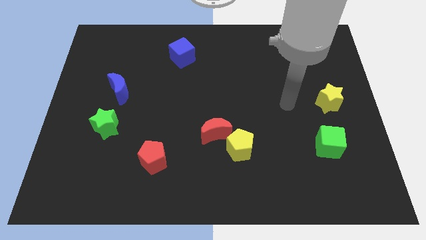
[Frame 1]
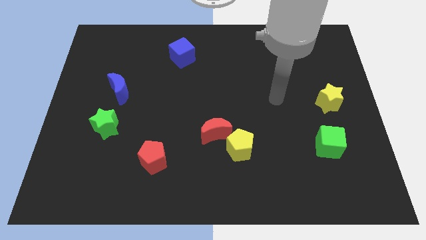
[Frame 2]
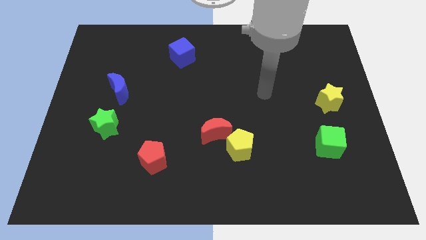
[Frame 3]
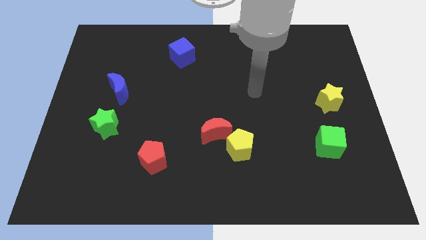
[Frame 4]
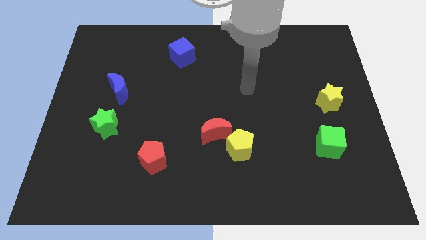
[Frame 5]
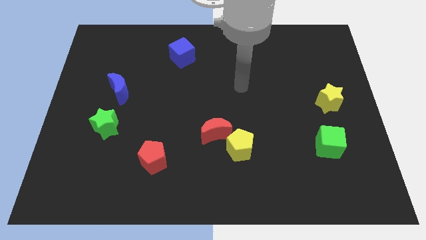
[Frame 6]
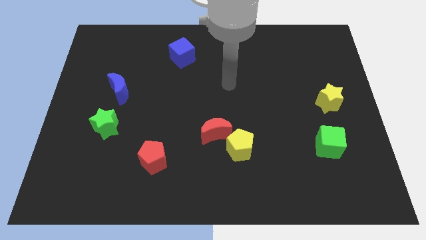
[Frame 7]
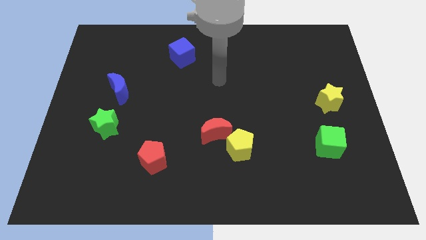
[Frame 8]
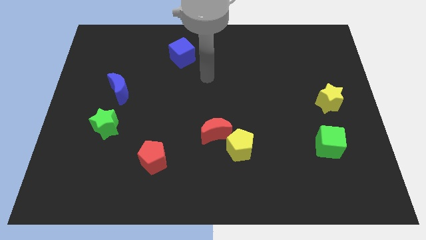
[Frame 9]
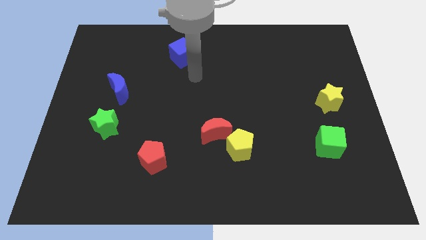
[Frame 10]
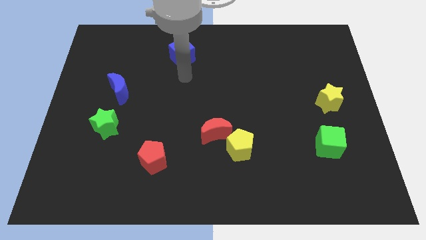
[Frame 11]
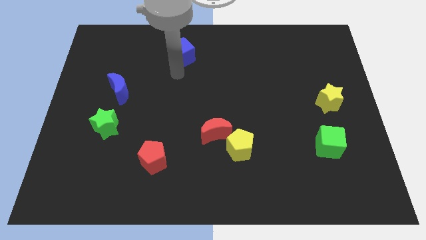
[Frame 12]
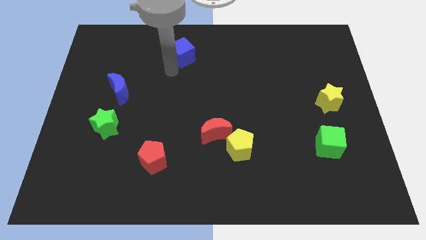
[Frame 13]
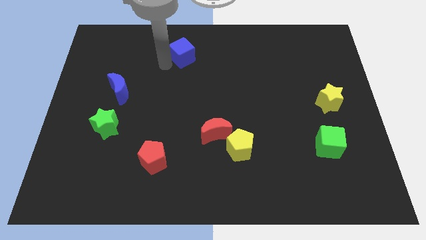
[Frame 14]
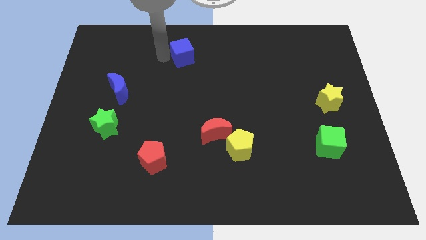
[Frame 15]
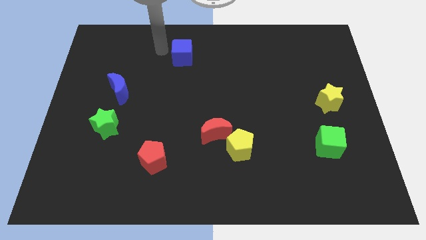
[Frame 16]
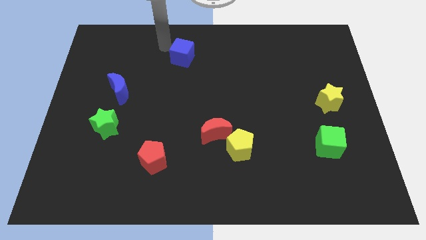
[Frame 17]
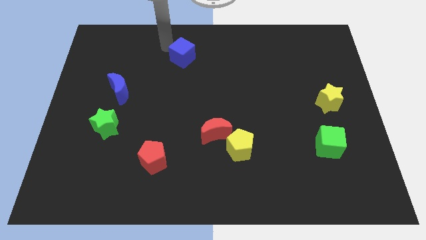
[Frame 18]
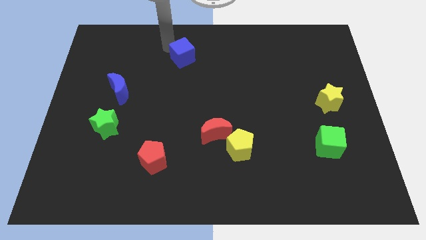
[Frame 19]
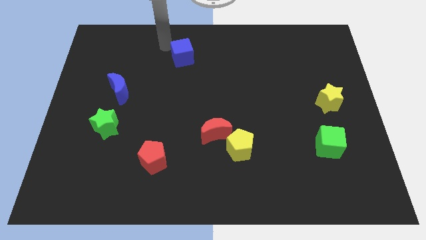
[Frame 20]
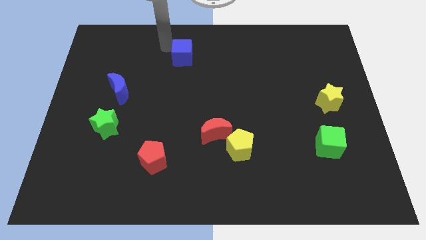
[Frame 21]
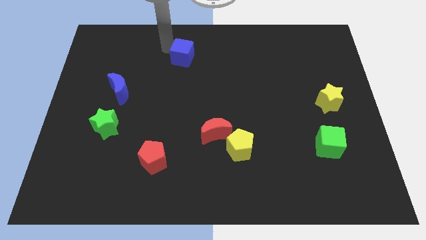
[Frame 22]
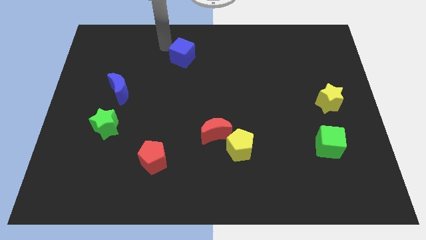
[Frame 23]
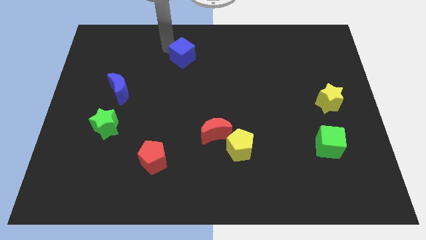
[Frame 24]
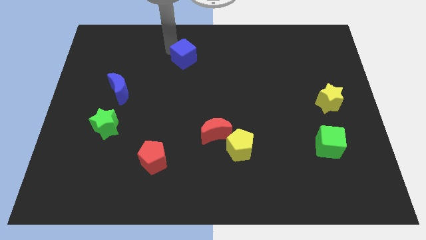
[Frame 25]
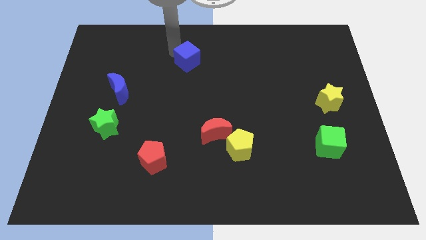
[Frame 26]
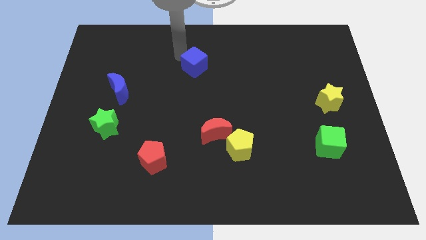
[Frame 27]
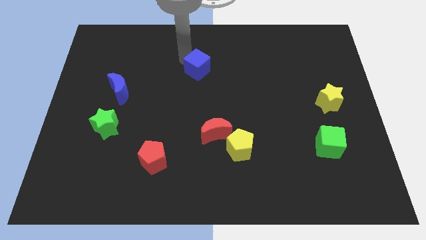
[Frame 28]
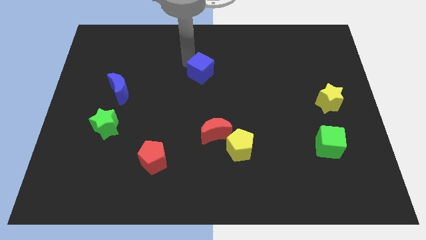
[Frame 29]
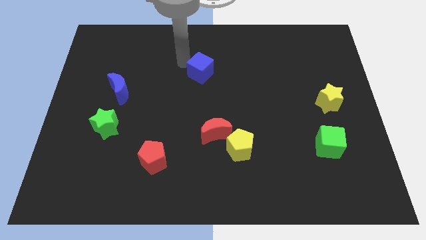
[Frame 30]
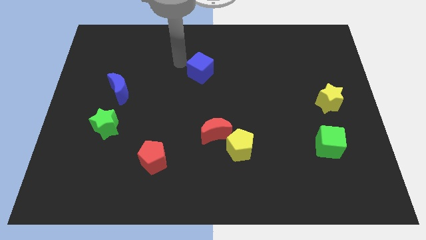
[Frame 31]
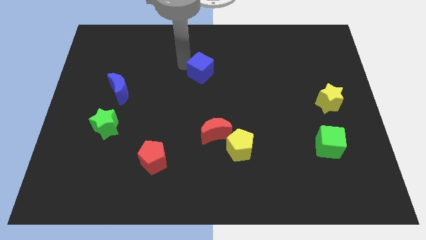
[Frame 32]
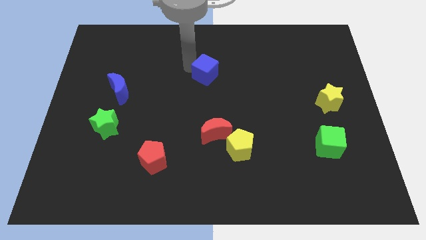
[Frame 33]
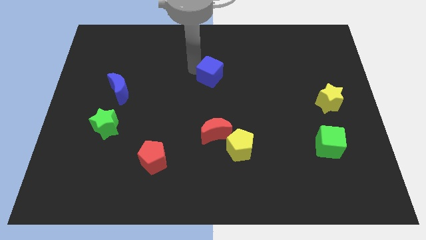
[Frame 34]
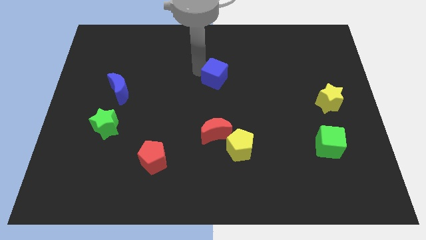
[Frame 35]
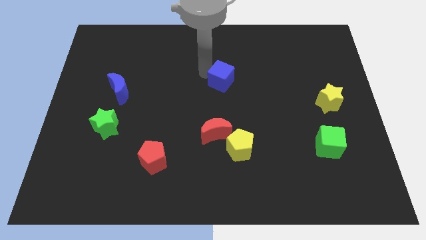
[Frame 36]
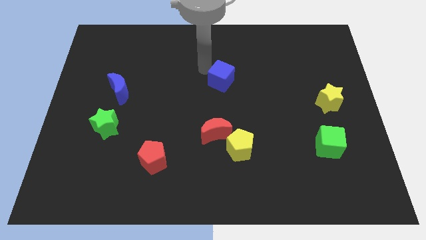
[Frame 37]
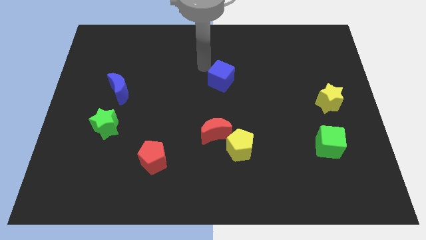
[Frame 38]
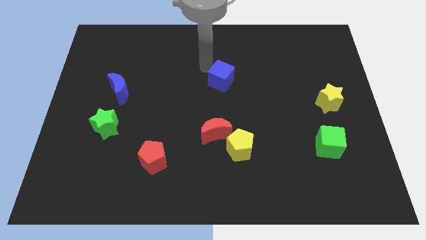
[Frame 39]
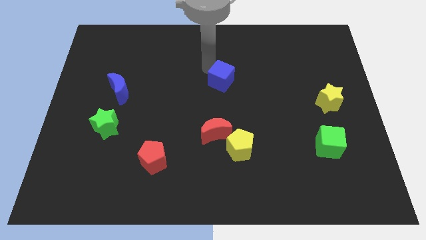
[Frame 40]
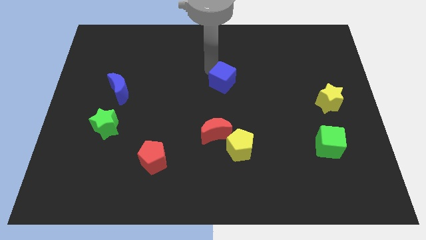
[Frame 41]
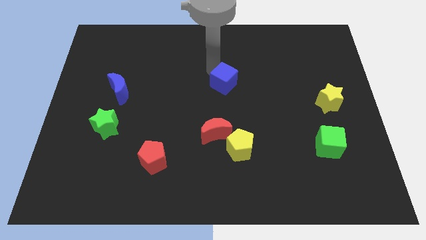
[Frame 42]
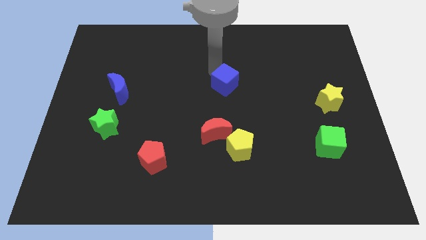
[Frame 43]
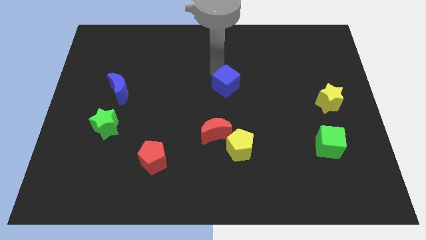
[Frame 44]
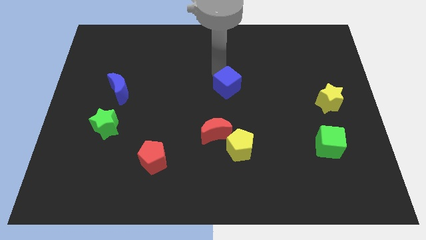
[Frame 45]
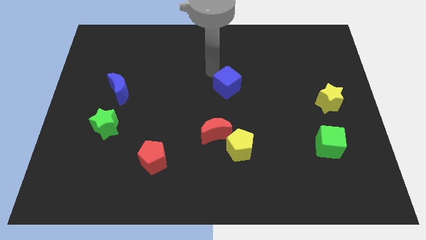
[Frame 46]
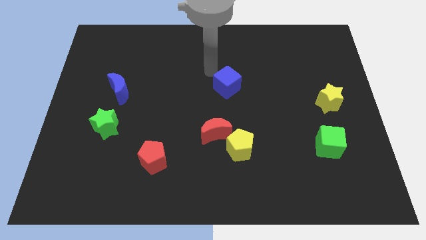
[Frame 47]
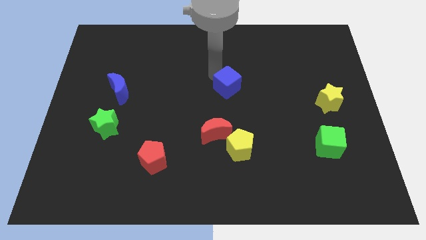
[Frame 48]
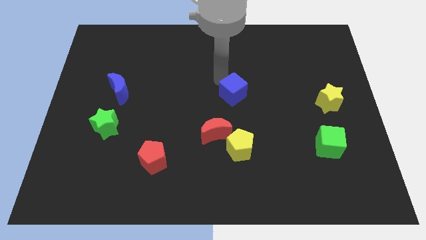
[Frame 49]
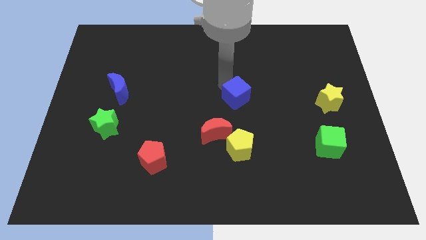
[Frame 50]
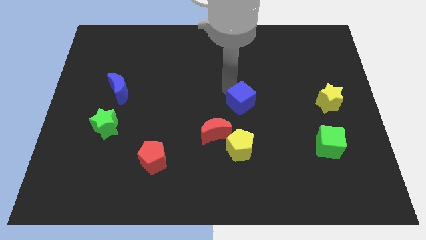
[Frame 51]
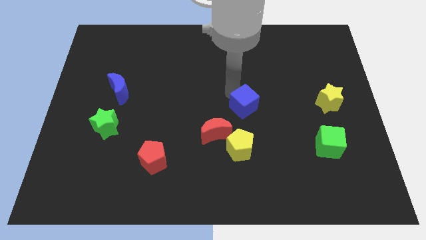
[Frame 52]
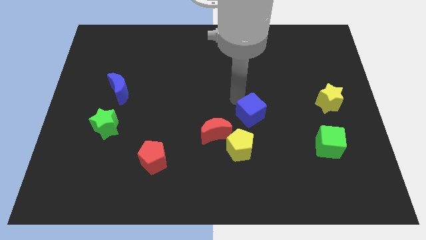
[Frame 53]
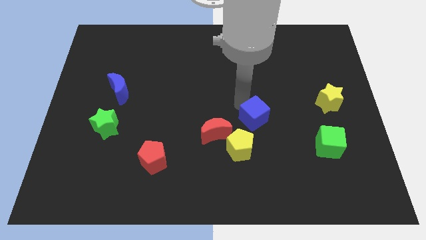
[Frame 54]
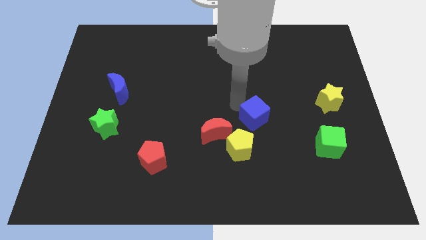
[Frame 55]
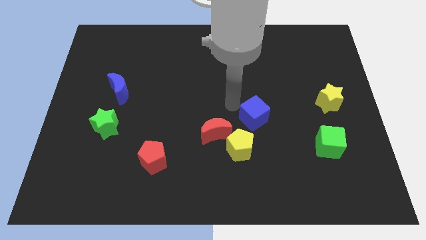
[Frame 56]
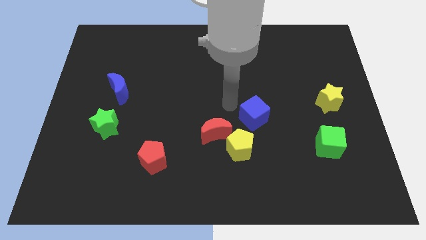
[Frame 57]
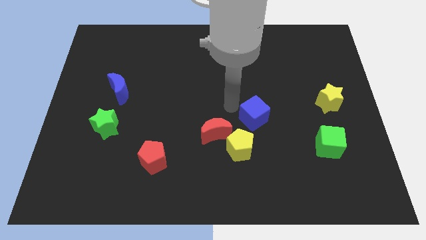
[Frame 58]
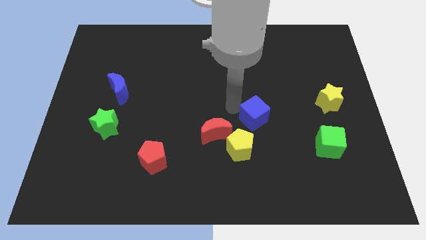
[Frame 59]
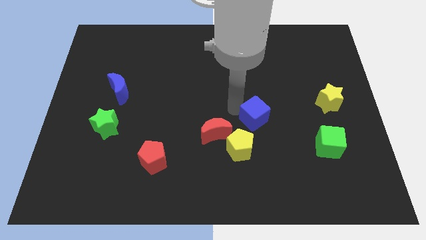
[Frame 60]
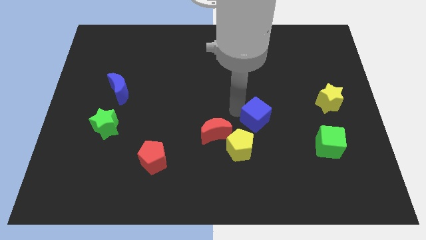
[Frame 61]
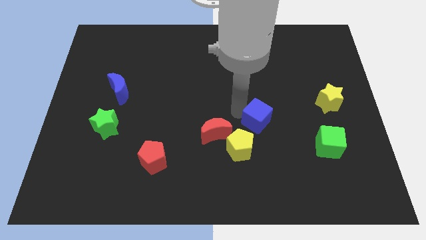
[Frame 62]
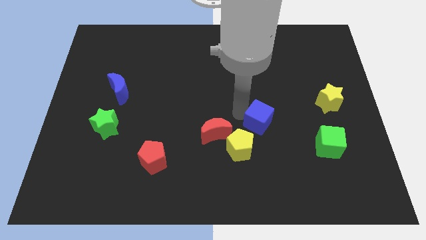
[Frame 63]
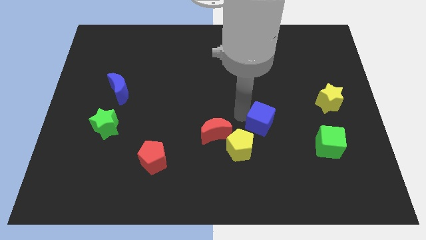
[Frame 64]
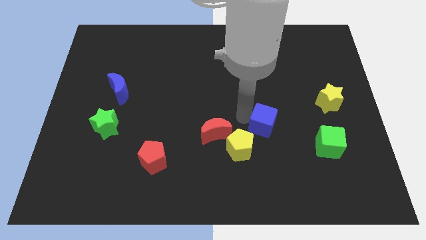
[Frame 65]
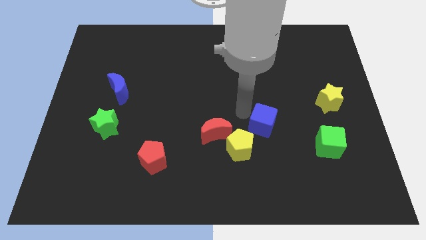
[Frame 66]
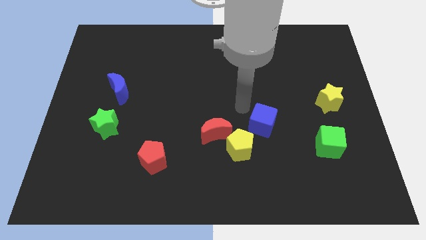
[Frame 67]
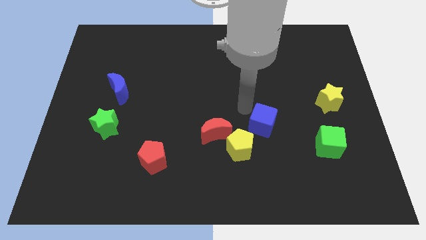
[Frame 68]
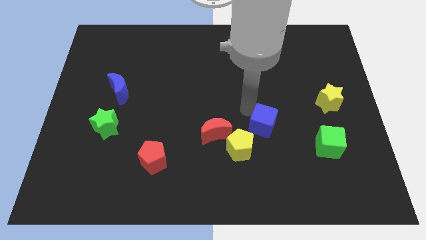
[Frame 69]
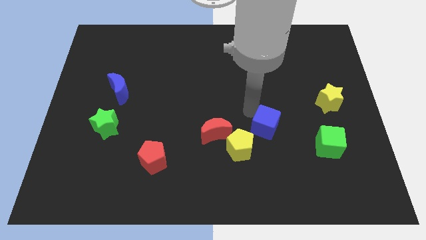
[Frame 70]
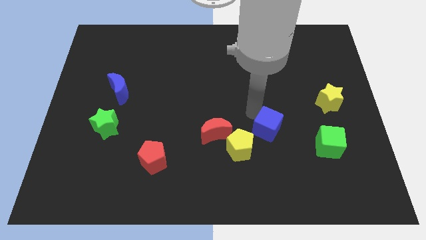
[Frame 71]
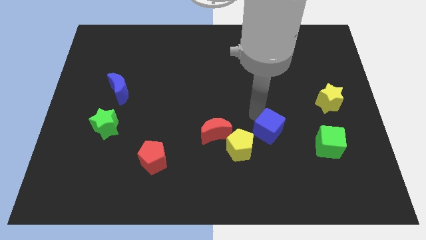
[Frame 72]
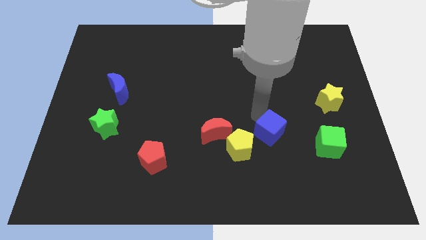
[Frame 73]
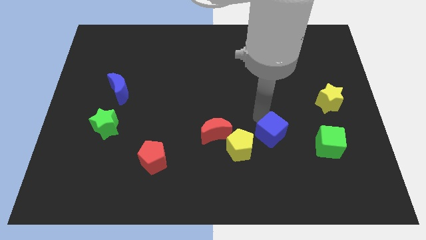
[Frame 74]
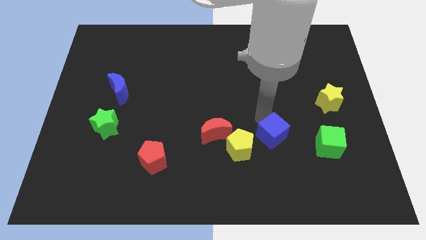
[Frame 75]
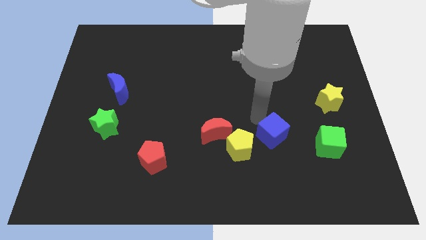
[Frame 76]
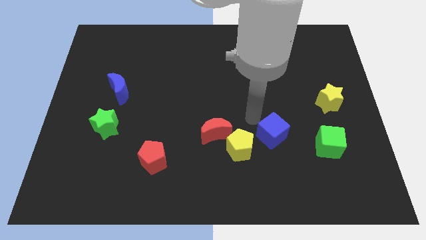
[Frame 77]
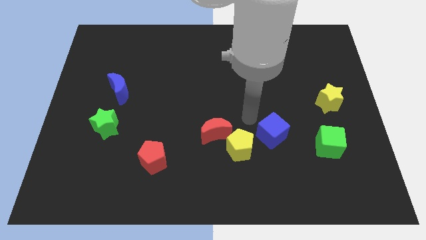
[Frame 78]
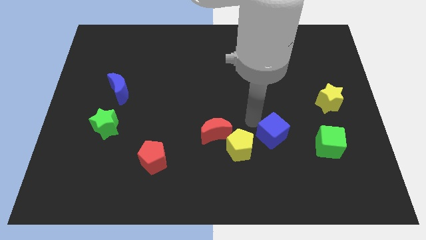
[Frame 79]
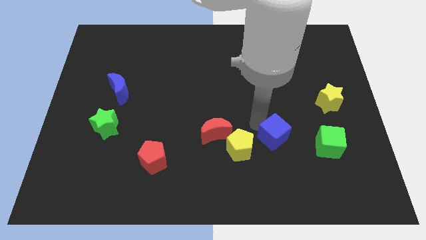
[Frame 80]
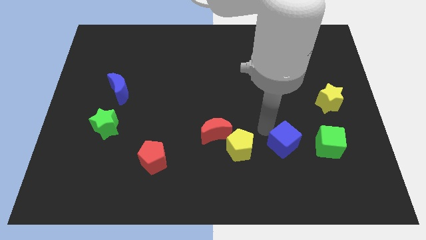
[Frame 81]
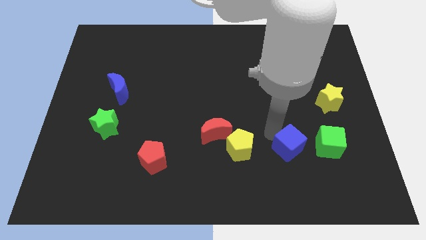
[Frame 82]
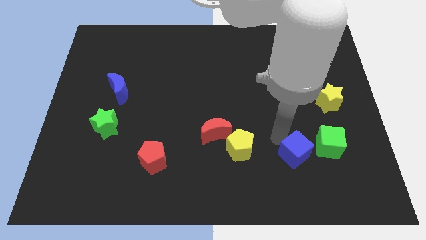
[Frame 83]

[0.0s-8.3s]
slide the blue cube to the bottom left of the green cube
